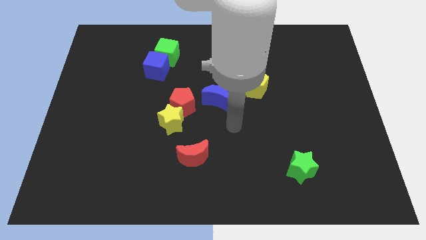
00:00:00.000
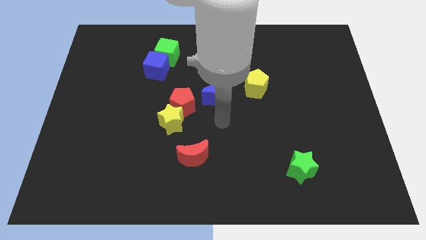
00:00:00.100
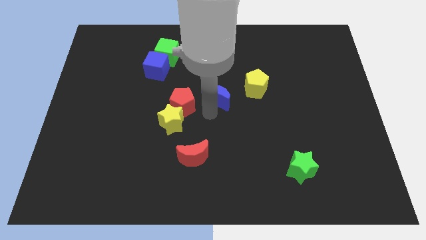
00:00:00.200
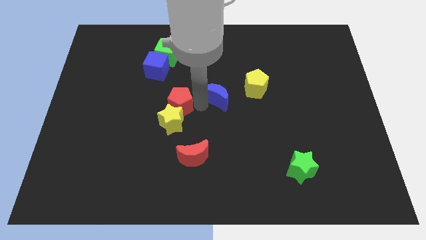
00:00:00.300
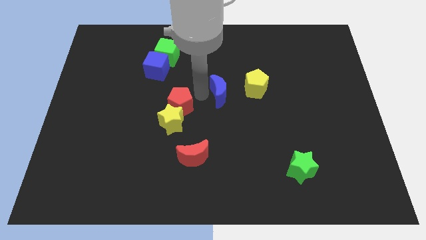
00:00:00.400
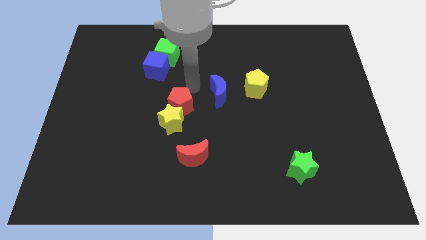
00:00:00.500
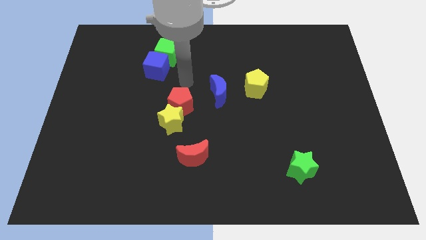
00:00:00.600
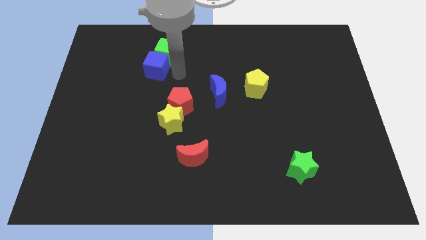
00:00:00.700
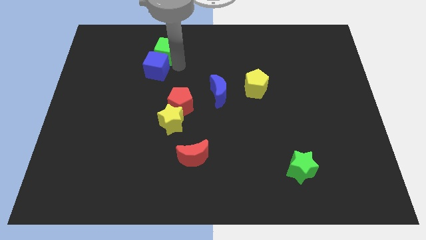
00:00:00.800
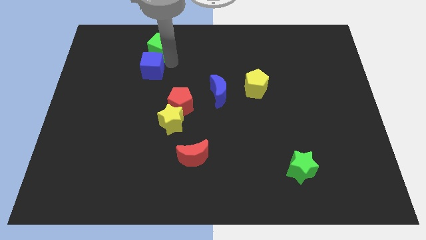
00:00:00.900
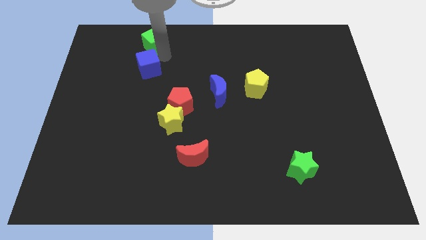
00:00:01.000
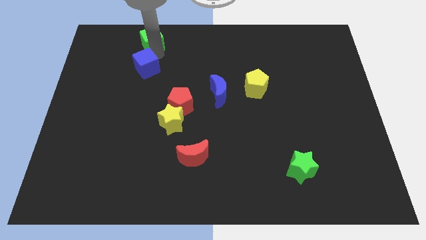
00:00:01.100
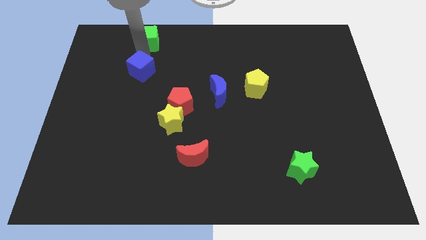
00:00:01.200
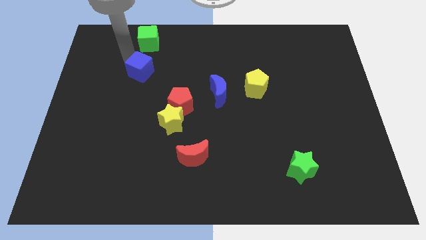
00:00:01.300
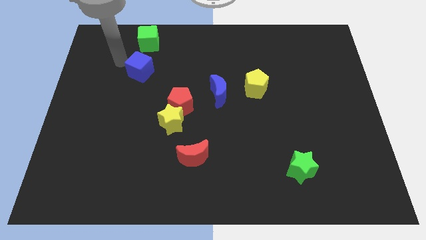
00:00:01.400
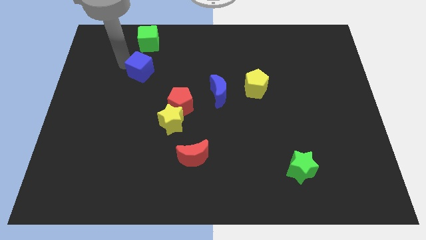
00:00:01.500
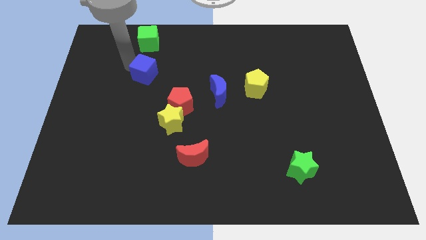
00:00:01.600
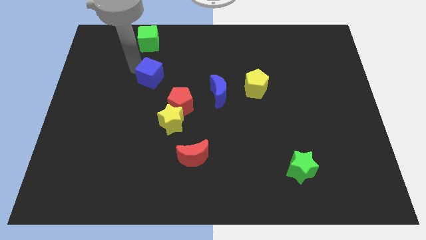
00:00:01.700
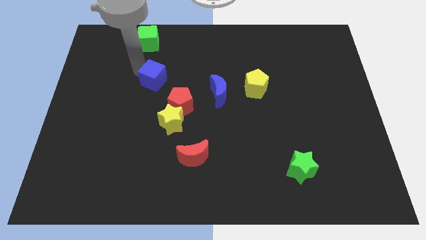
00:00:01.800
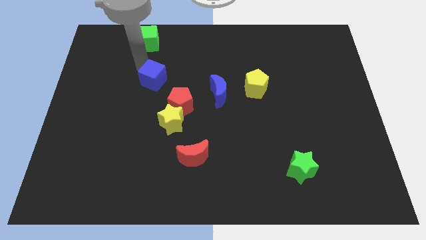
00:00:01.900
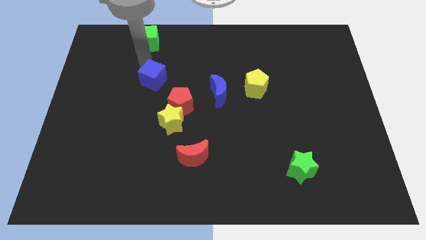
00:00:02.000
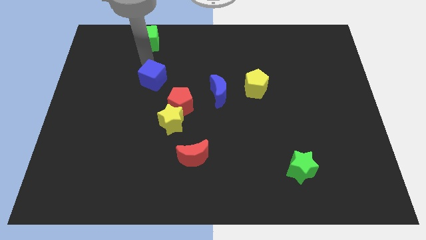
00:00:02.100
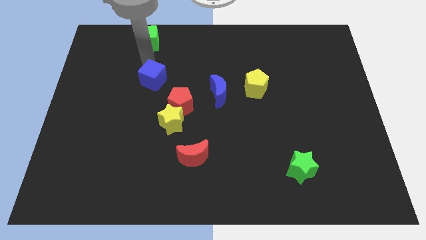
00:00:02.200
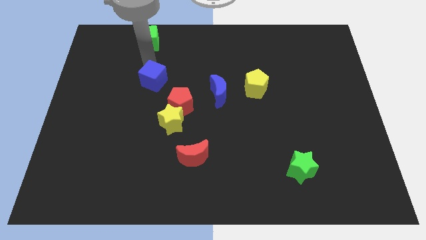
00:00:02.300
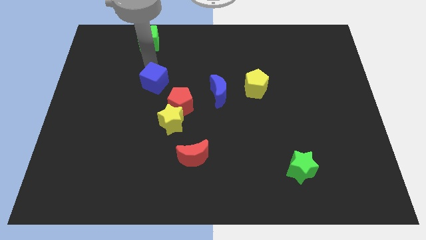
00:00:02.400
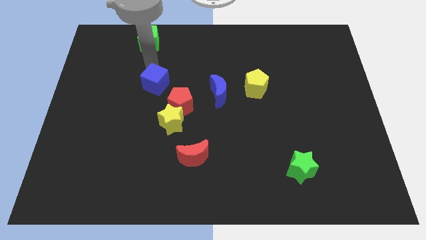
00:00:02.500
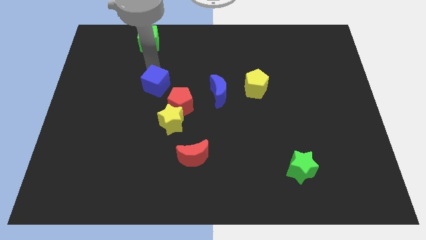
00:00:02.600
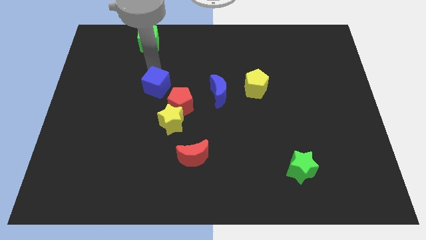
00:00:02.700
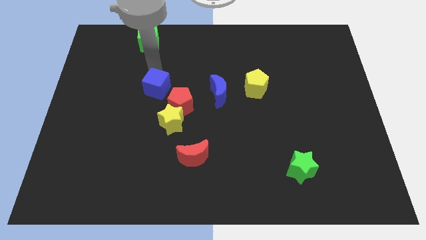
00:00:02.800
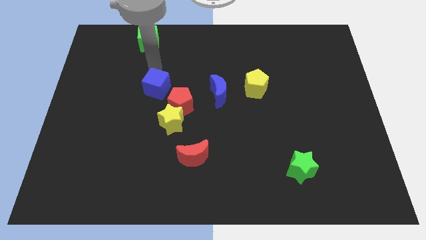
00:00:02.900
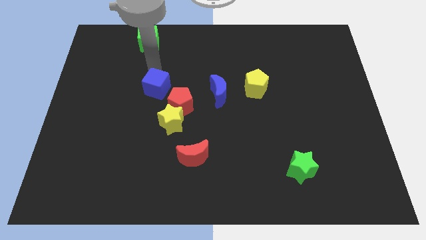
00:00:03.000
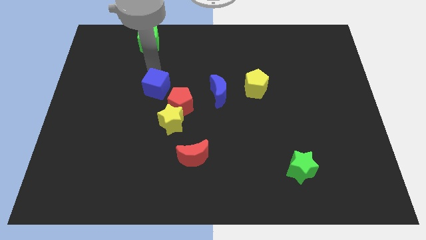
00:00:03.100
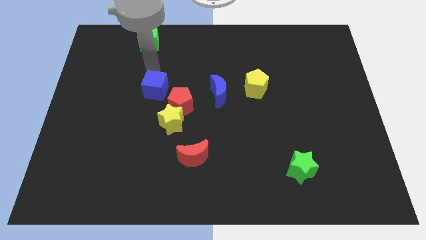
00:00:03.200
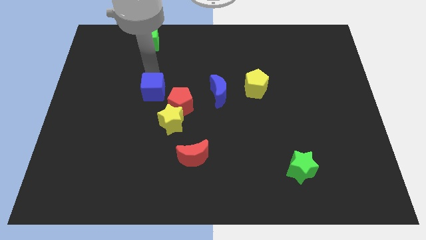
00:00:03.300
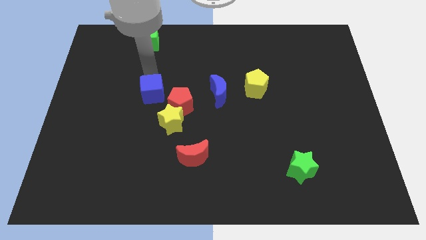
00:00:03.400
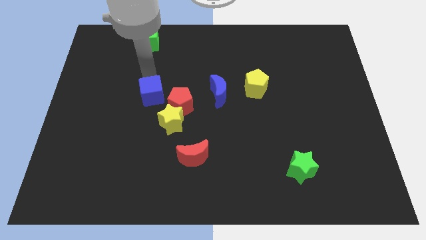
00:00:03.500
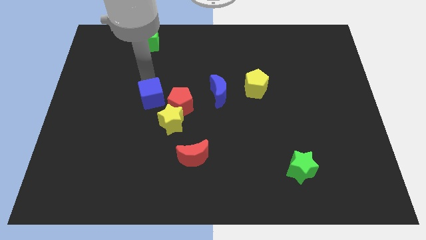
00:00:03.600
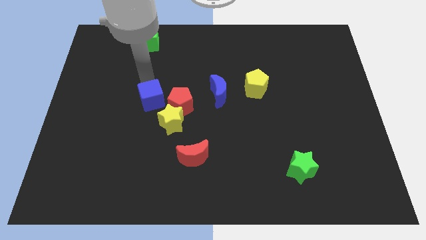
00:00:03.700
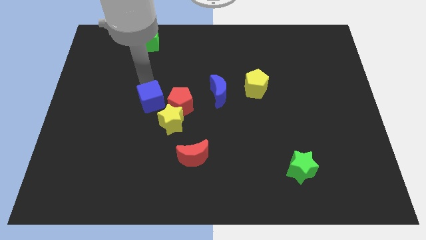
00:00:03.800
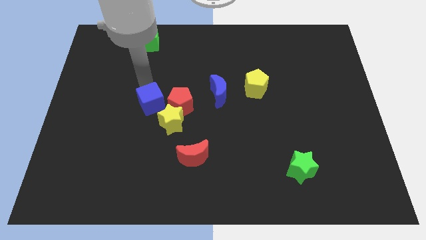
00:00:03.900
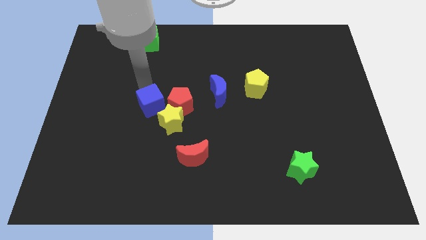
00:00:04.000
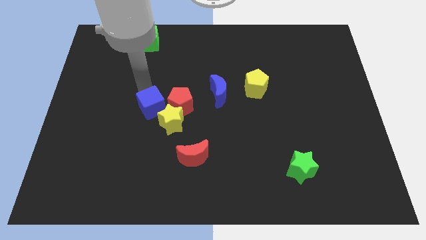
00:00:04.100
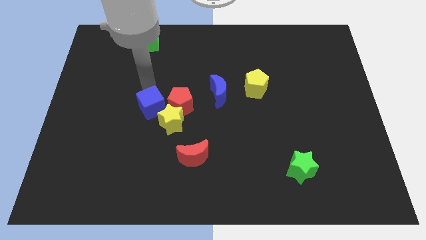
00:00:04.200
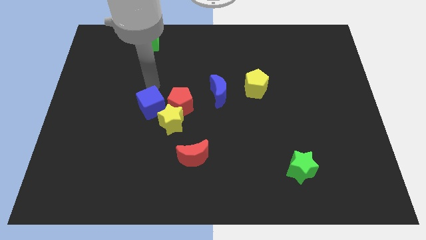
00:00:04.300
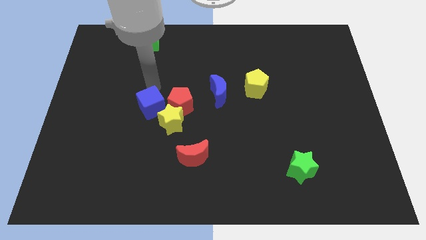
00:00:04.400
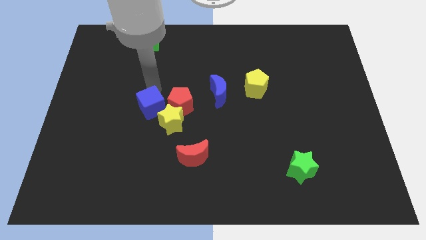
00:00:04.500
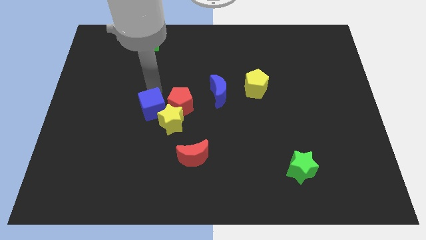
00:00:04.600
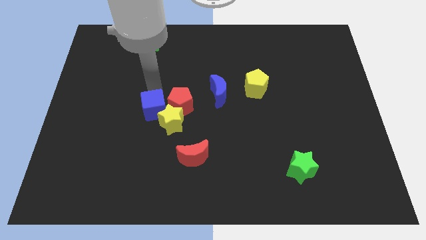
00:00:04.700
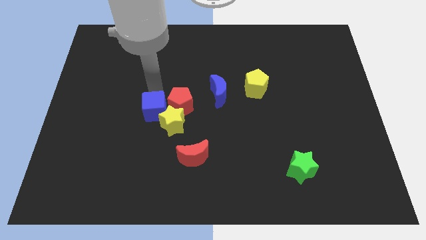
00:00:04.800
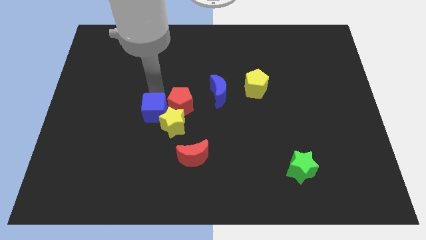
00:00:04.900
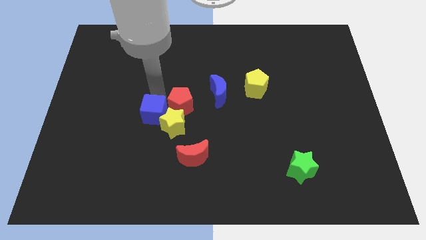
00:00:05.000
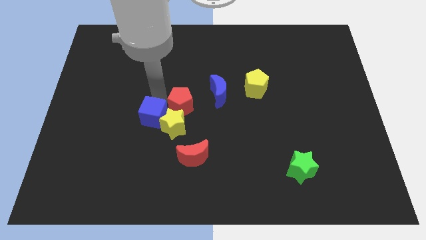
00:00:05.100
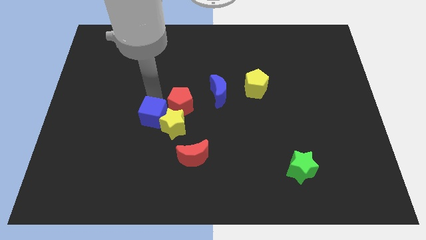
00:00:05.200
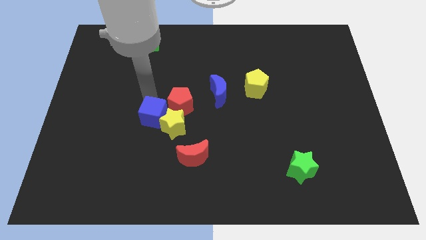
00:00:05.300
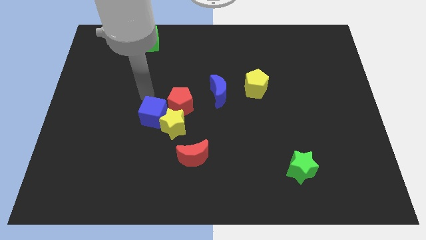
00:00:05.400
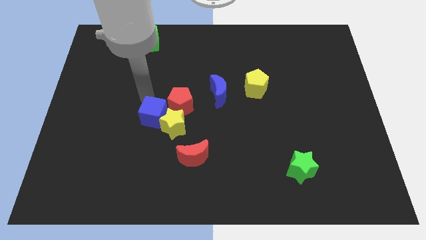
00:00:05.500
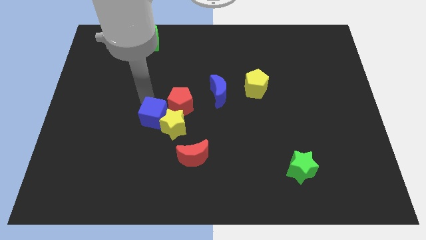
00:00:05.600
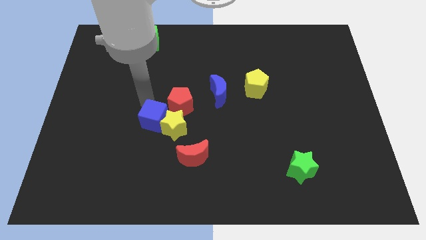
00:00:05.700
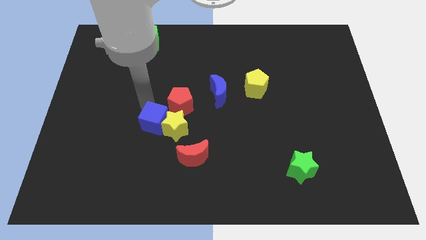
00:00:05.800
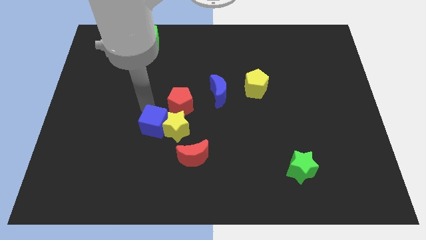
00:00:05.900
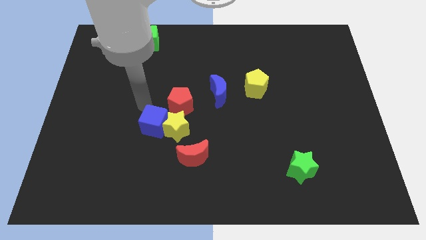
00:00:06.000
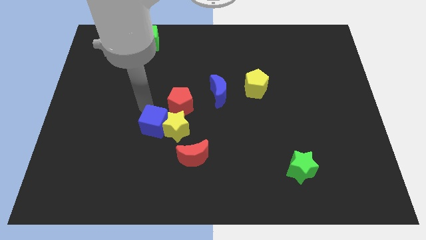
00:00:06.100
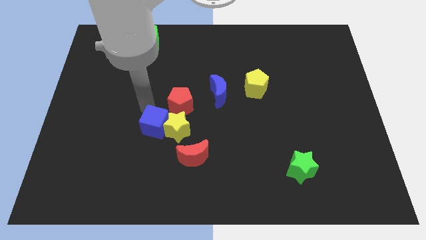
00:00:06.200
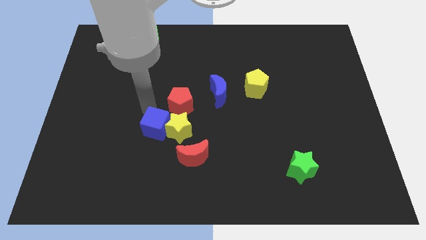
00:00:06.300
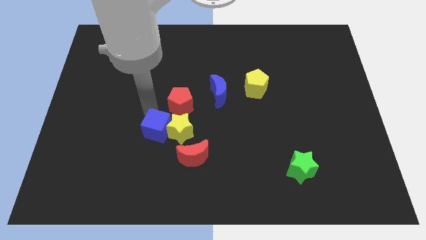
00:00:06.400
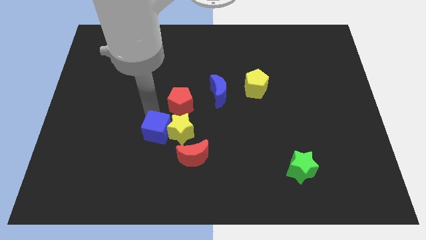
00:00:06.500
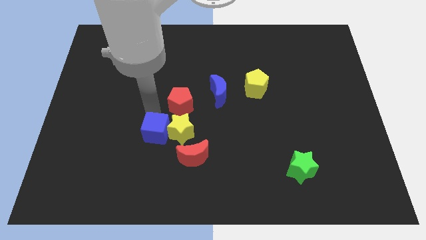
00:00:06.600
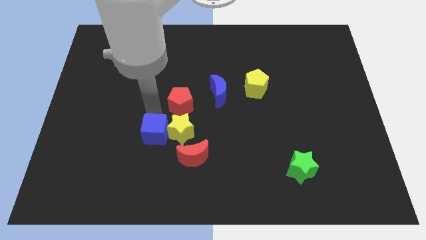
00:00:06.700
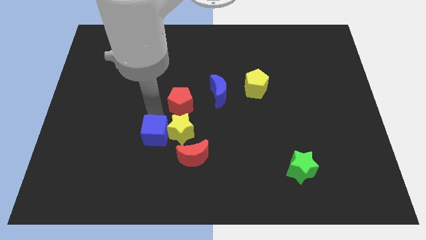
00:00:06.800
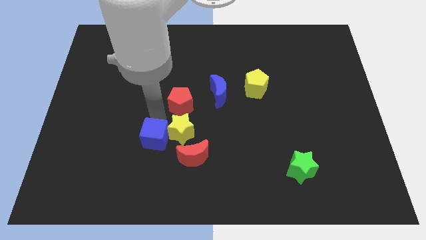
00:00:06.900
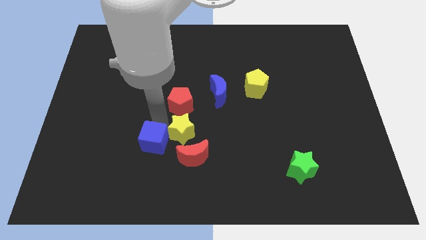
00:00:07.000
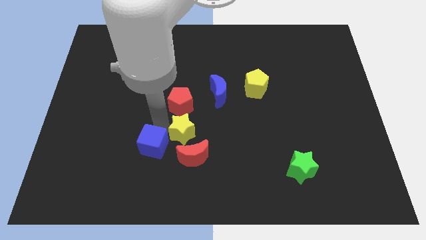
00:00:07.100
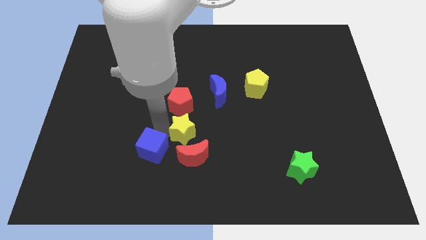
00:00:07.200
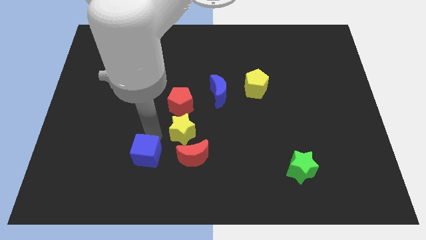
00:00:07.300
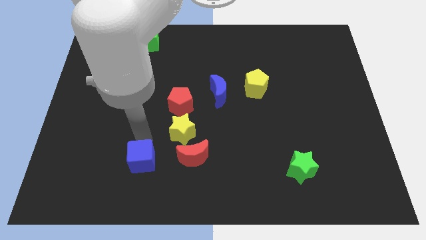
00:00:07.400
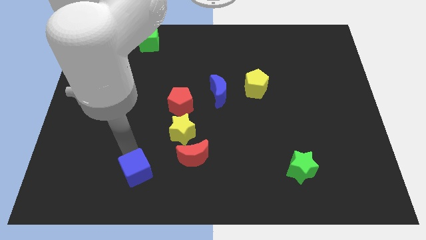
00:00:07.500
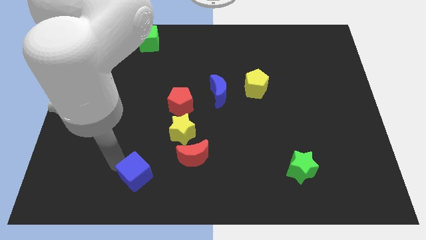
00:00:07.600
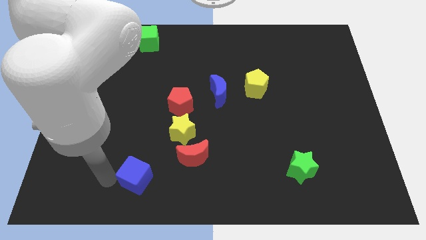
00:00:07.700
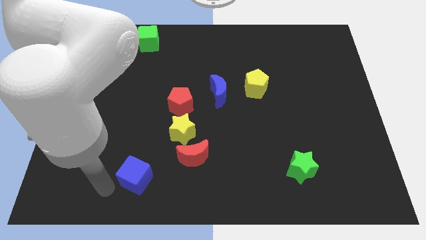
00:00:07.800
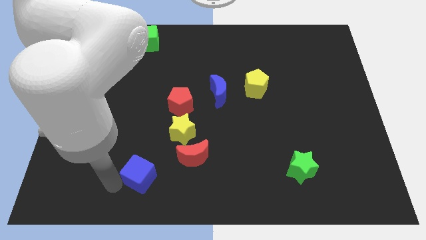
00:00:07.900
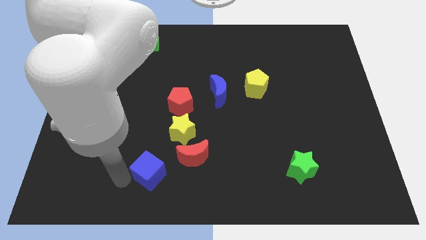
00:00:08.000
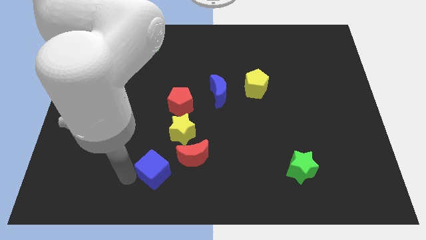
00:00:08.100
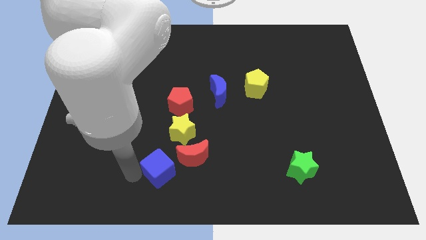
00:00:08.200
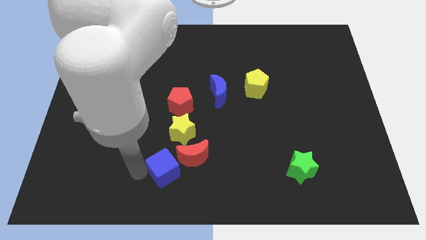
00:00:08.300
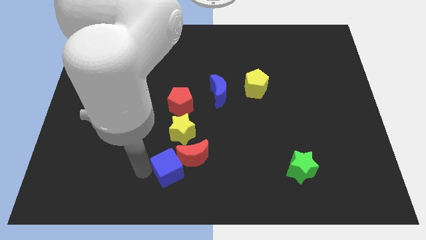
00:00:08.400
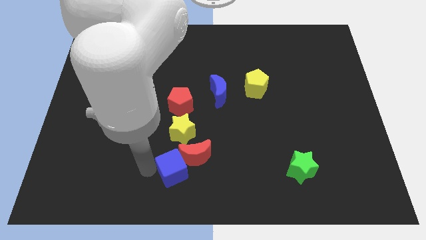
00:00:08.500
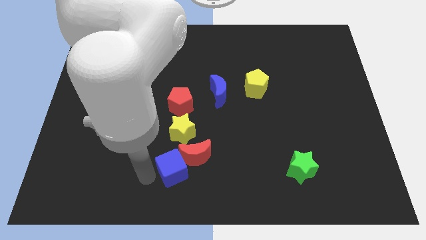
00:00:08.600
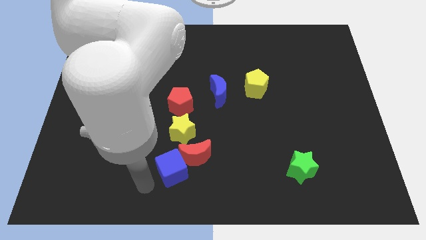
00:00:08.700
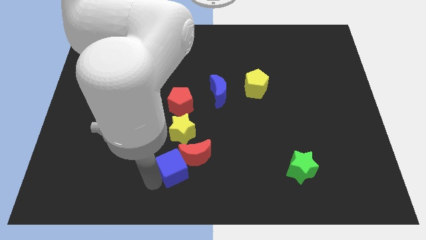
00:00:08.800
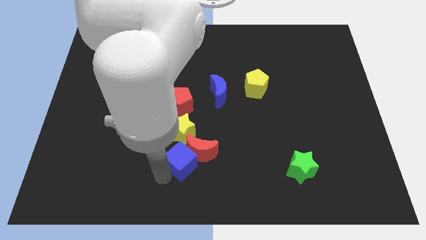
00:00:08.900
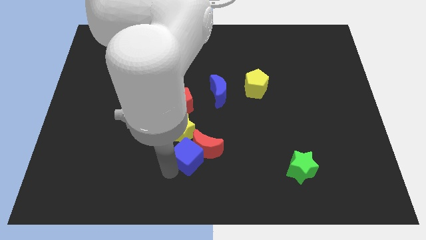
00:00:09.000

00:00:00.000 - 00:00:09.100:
move the blue cube to the bottom right side of the yellow star
